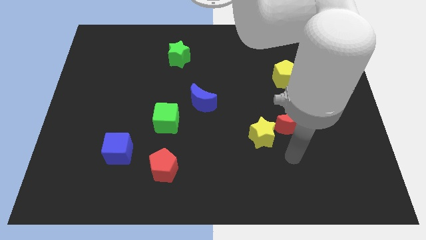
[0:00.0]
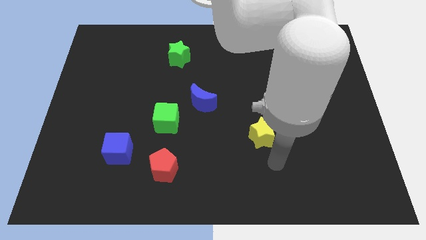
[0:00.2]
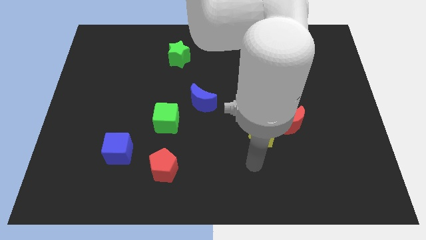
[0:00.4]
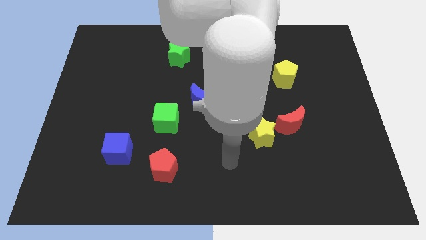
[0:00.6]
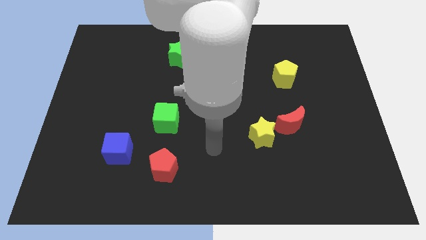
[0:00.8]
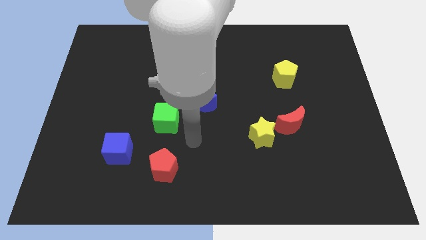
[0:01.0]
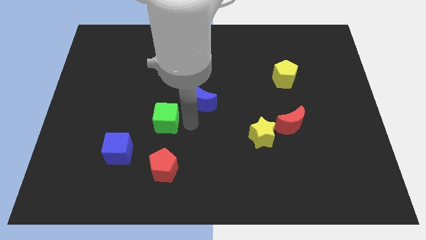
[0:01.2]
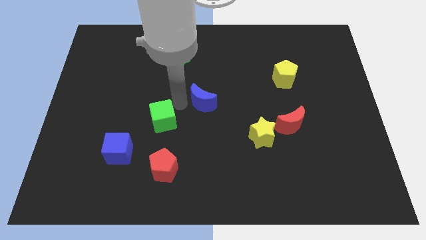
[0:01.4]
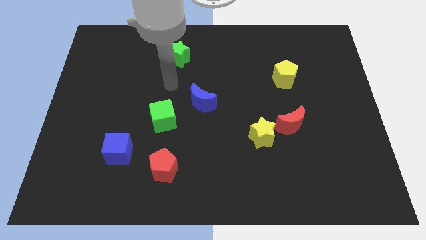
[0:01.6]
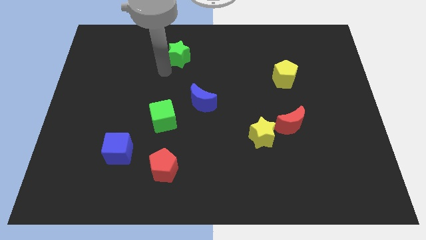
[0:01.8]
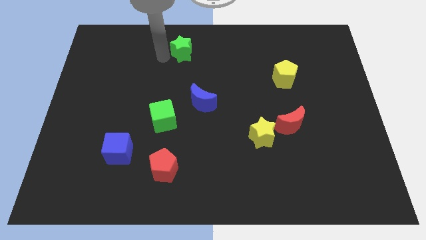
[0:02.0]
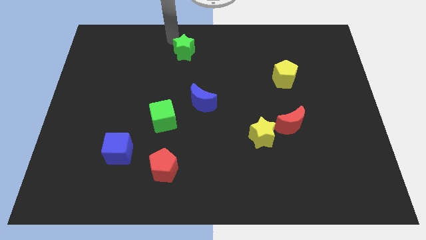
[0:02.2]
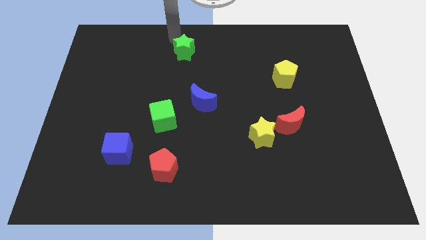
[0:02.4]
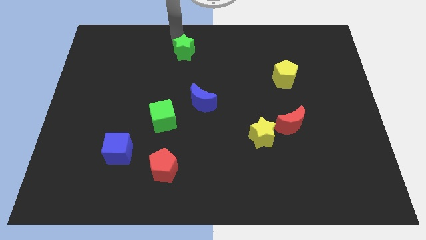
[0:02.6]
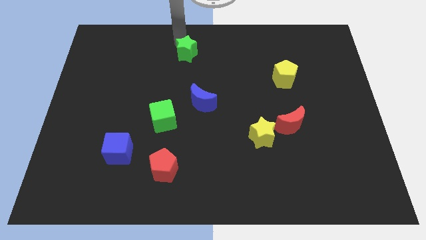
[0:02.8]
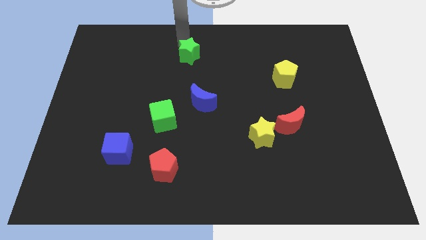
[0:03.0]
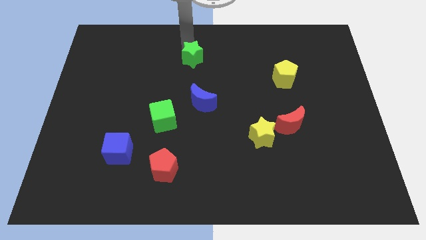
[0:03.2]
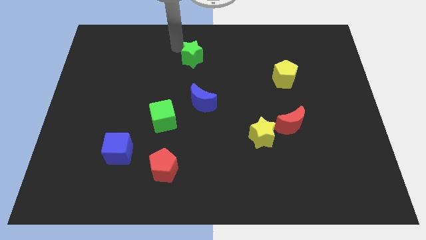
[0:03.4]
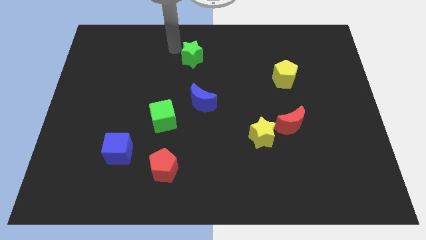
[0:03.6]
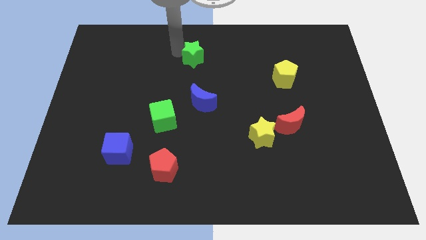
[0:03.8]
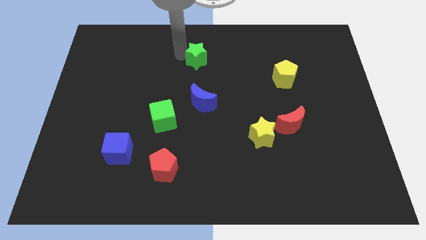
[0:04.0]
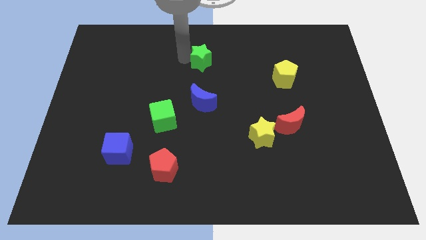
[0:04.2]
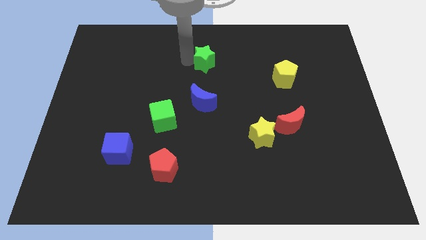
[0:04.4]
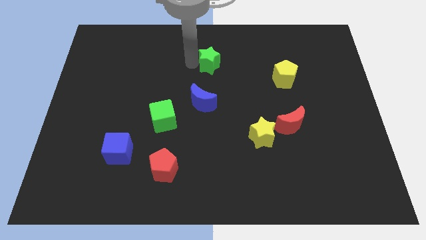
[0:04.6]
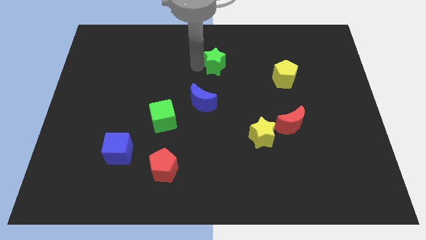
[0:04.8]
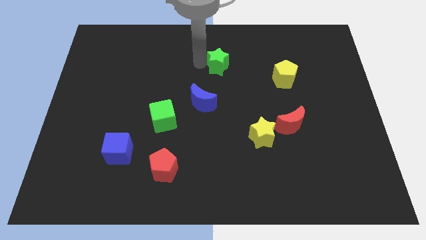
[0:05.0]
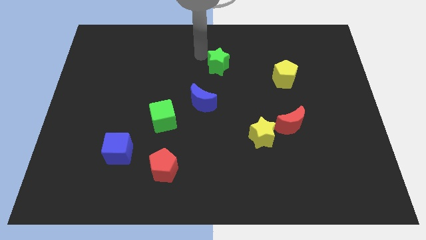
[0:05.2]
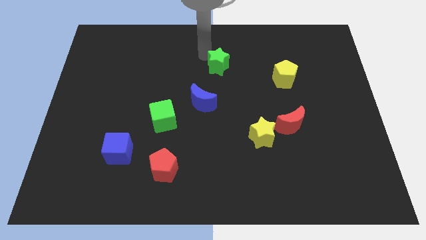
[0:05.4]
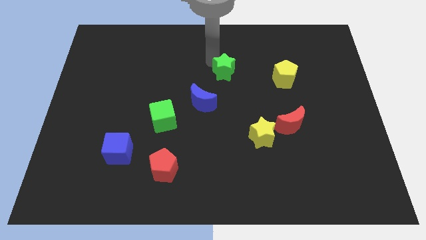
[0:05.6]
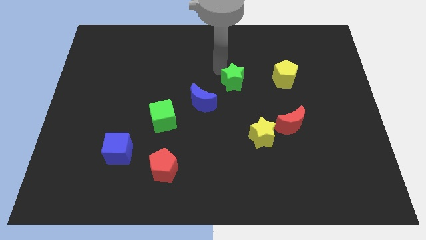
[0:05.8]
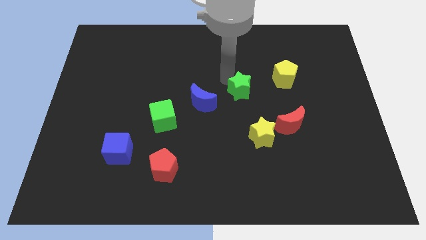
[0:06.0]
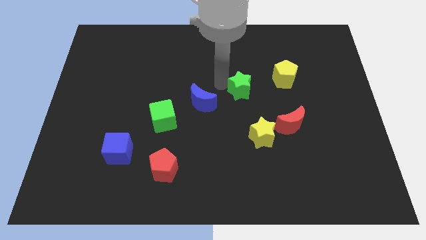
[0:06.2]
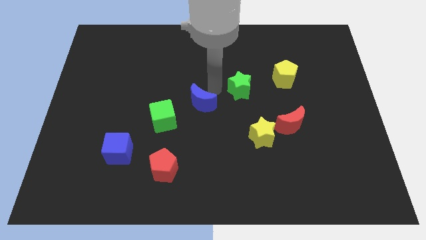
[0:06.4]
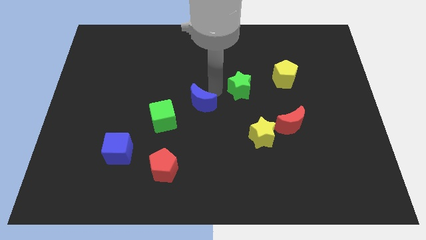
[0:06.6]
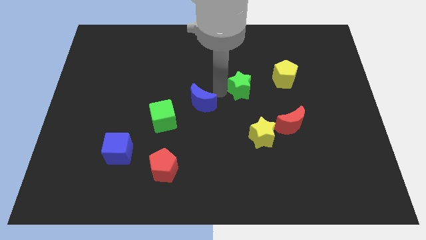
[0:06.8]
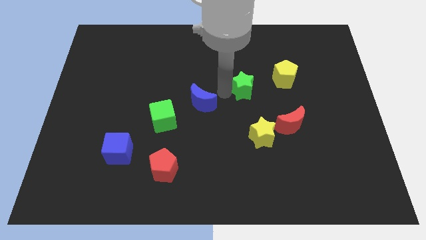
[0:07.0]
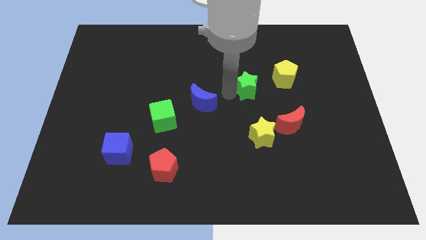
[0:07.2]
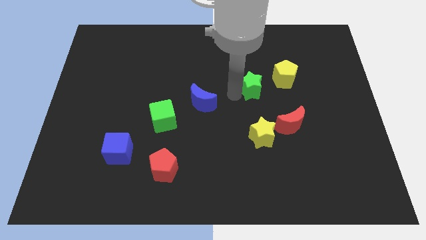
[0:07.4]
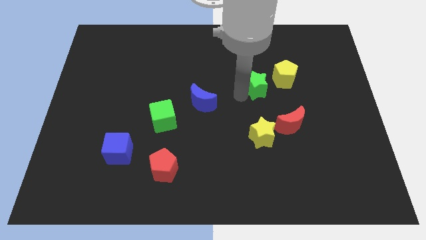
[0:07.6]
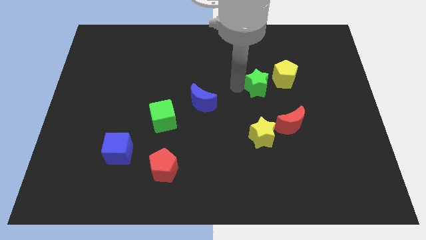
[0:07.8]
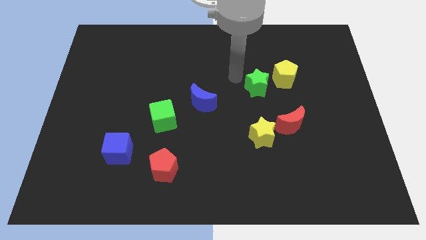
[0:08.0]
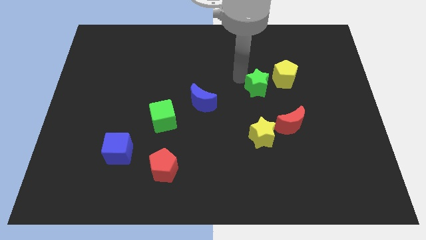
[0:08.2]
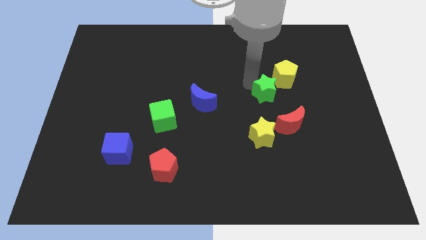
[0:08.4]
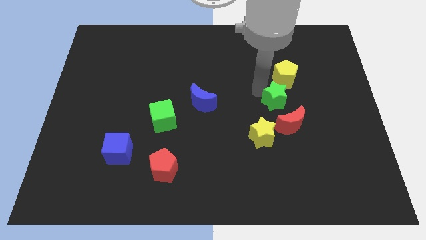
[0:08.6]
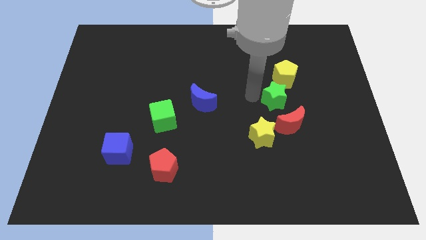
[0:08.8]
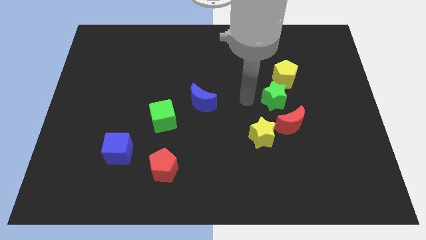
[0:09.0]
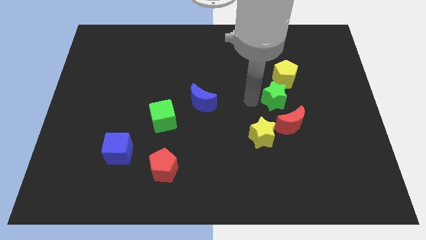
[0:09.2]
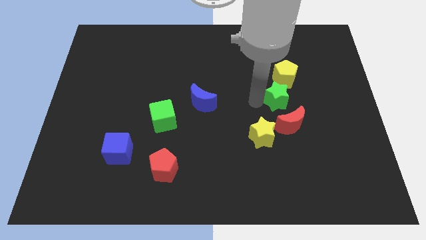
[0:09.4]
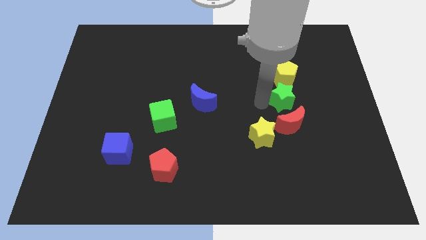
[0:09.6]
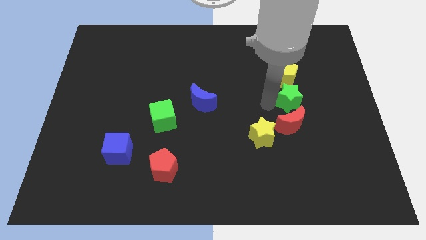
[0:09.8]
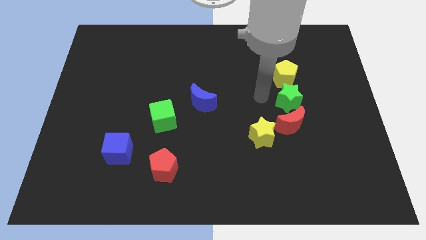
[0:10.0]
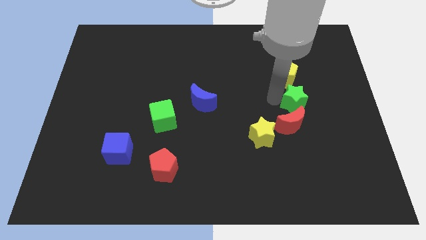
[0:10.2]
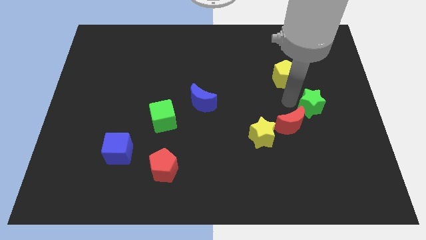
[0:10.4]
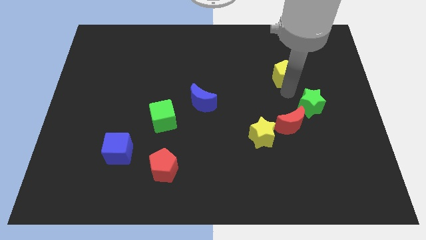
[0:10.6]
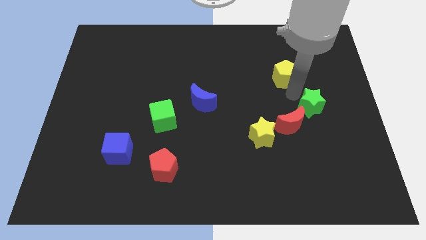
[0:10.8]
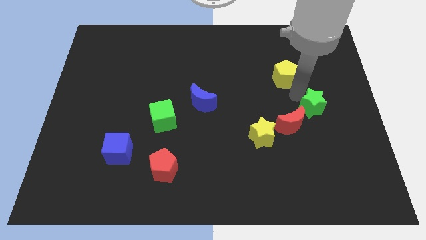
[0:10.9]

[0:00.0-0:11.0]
move the green star to the right side of the red moon

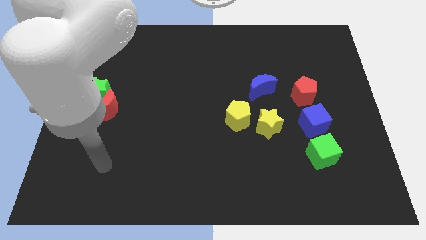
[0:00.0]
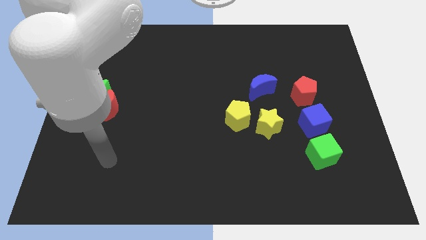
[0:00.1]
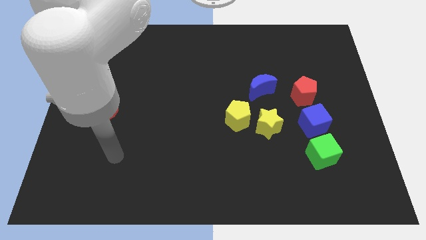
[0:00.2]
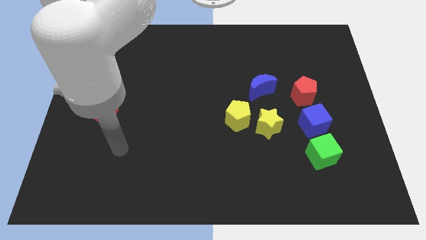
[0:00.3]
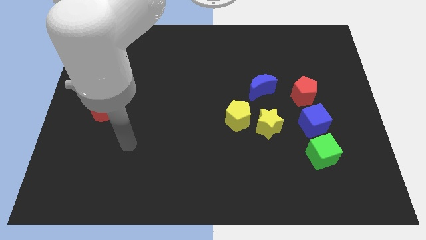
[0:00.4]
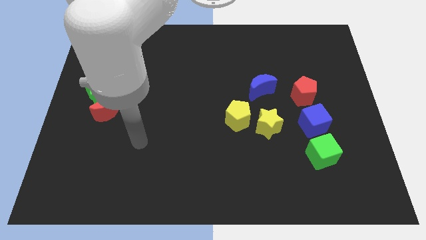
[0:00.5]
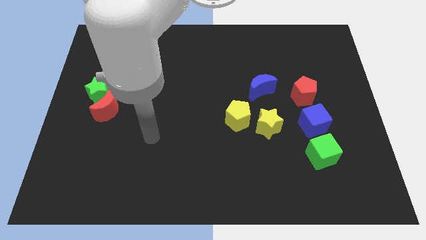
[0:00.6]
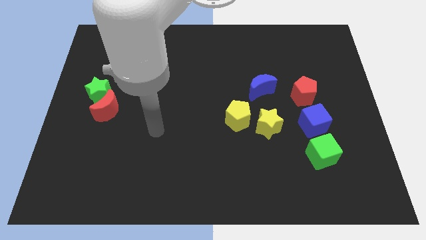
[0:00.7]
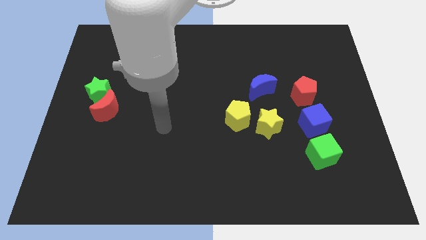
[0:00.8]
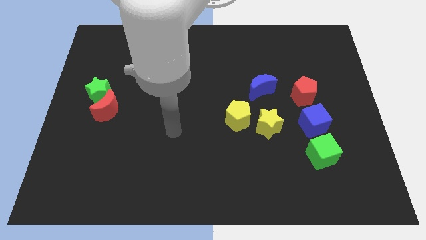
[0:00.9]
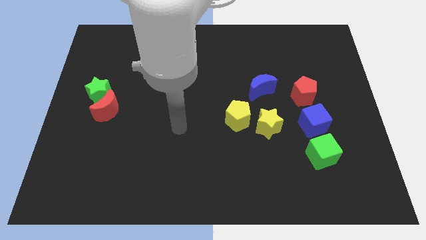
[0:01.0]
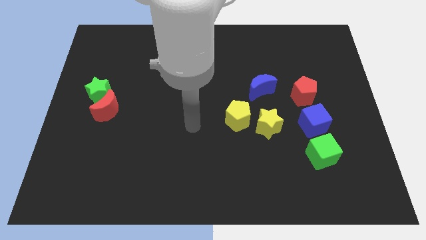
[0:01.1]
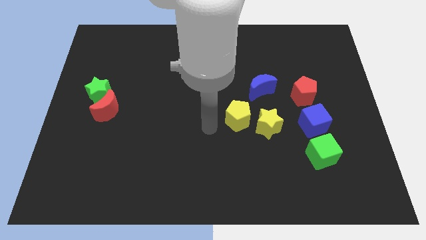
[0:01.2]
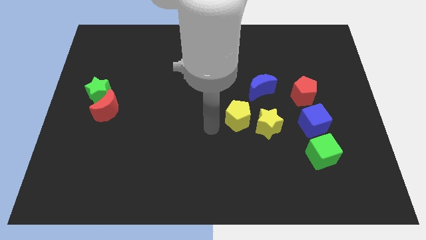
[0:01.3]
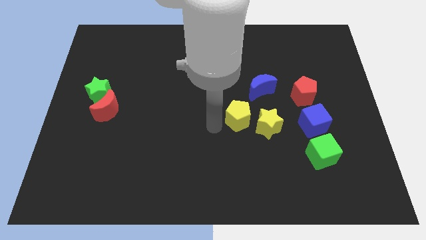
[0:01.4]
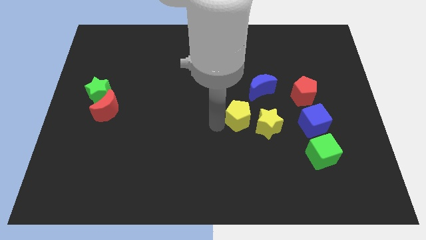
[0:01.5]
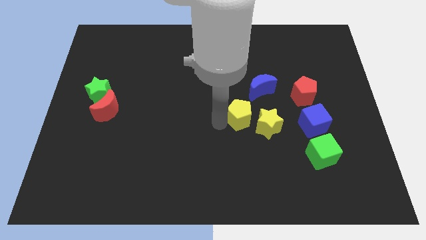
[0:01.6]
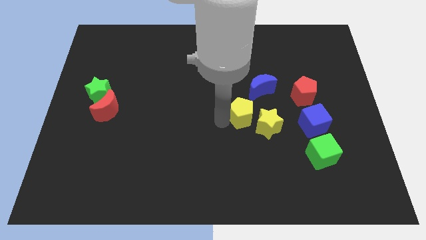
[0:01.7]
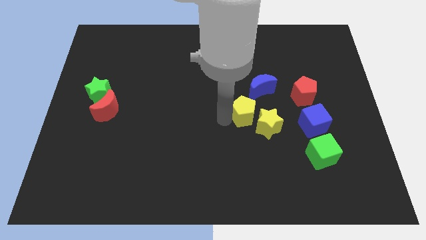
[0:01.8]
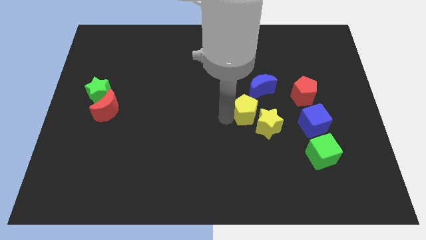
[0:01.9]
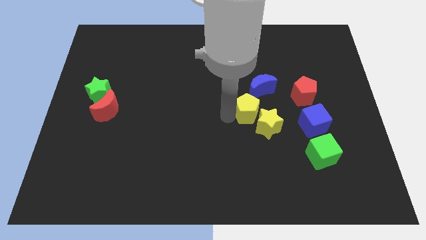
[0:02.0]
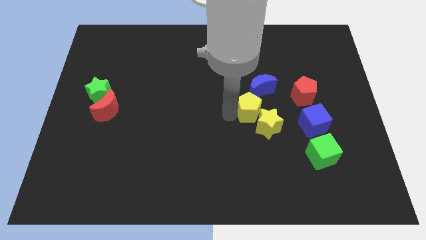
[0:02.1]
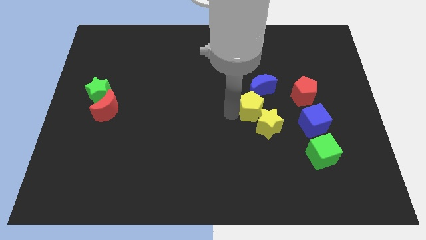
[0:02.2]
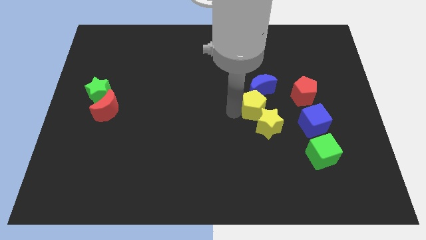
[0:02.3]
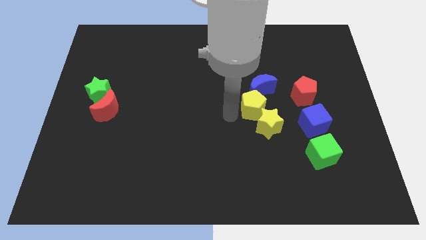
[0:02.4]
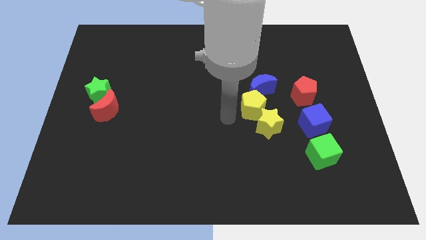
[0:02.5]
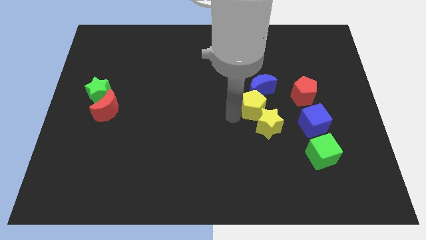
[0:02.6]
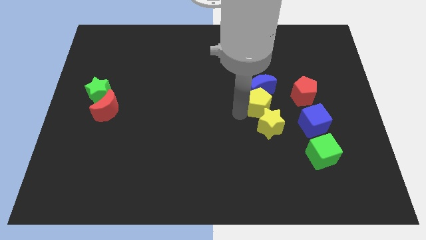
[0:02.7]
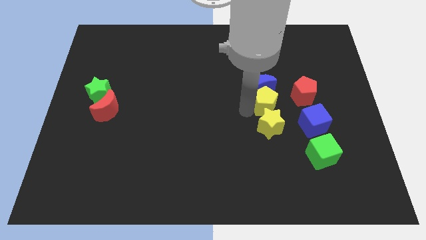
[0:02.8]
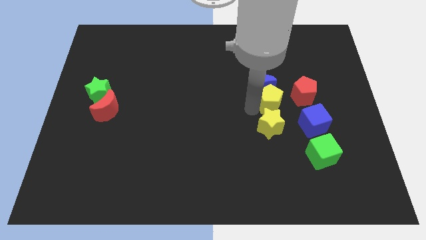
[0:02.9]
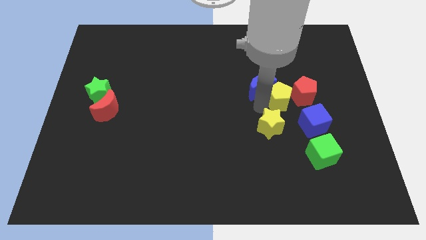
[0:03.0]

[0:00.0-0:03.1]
put the yellow pentagon to the right side of the blue moon
